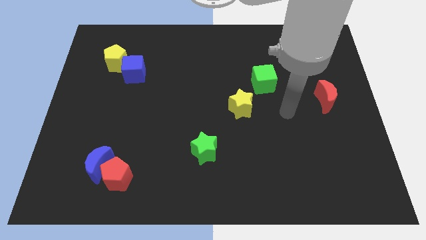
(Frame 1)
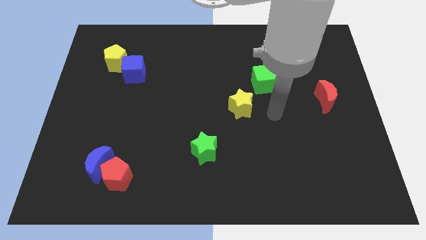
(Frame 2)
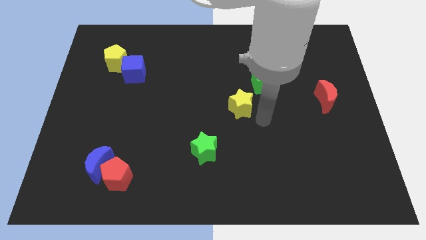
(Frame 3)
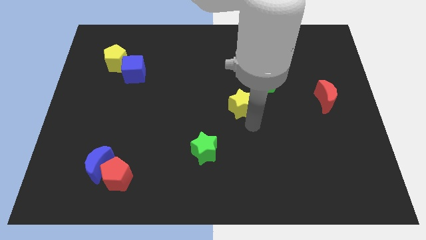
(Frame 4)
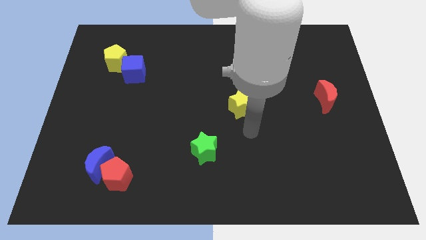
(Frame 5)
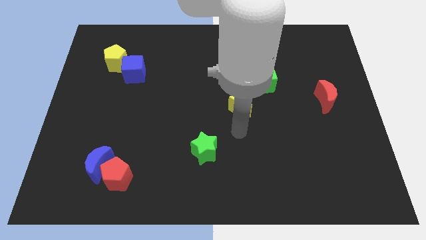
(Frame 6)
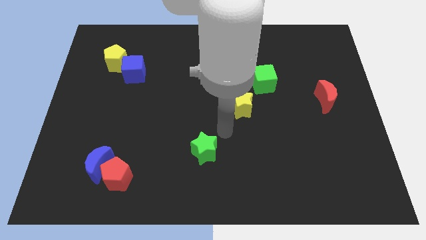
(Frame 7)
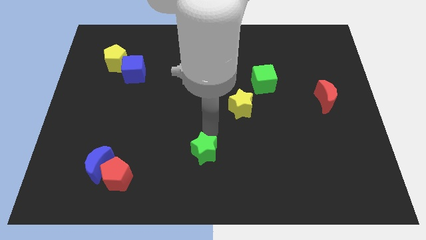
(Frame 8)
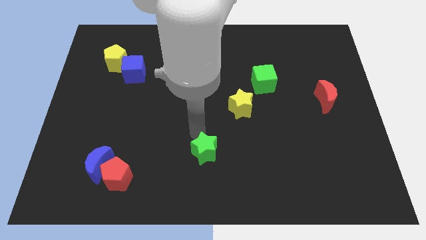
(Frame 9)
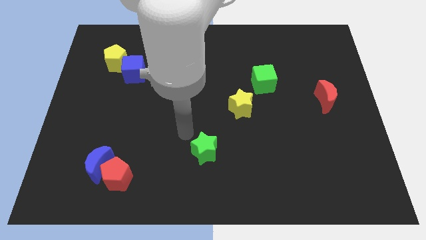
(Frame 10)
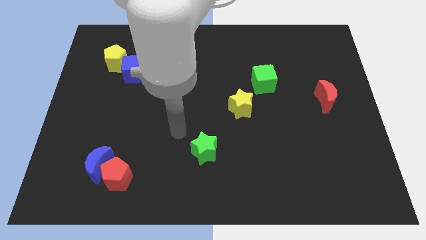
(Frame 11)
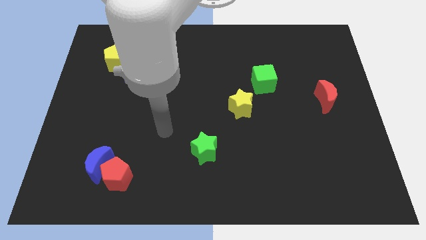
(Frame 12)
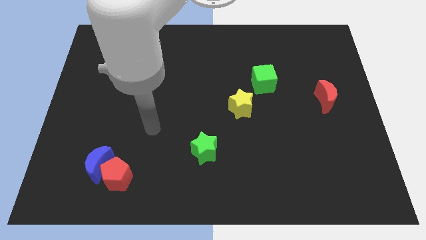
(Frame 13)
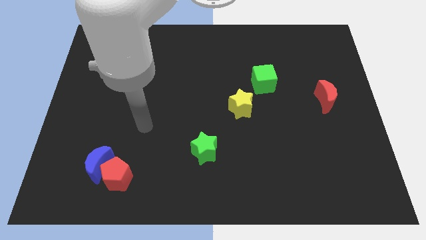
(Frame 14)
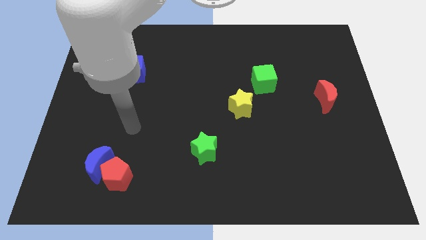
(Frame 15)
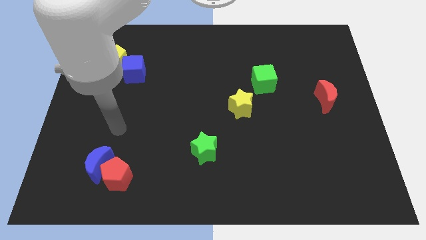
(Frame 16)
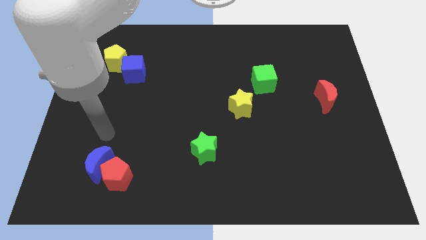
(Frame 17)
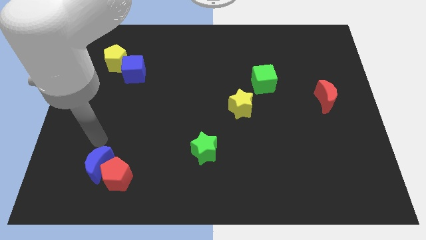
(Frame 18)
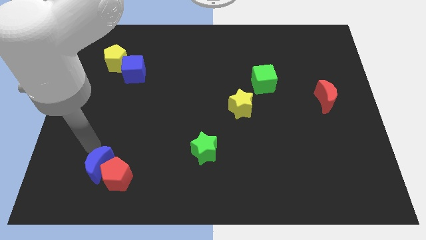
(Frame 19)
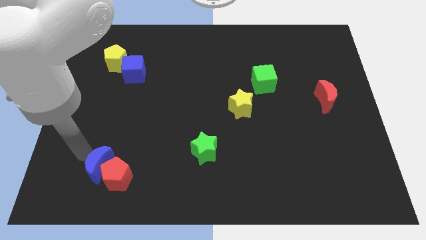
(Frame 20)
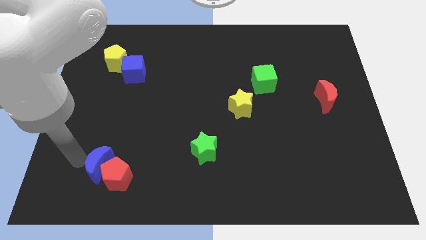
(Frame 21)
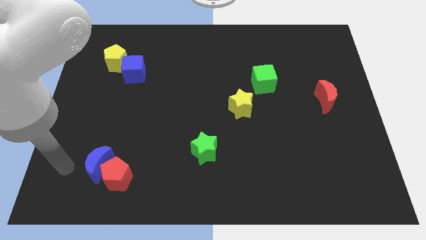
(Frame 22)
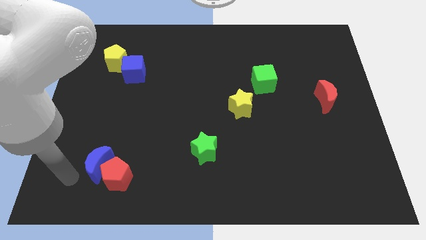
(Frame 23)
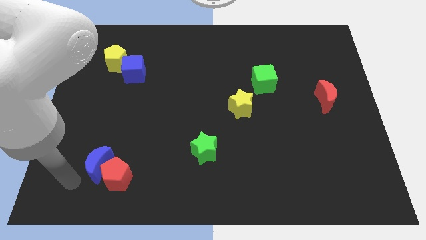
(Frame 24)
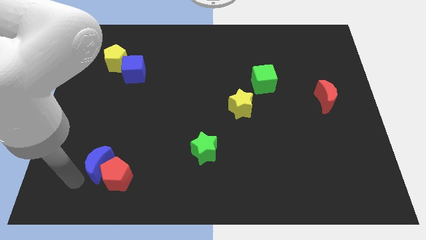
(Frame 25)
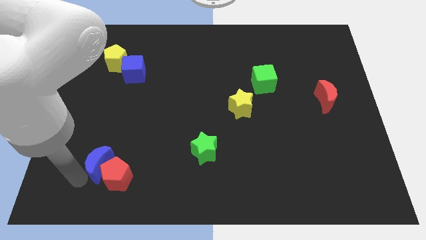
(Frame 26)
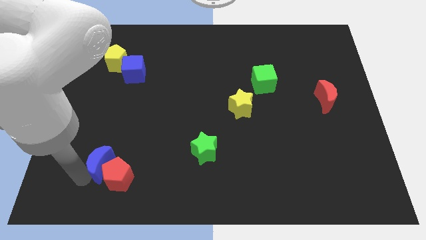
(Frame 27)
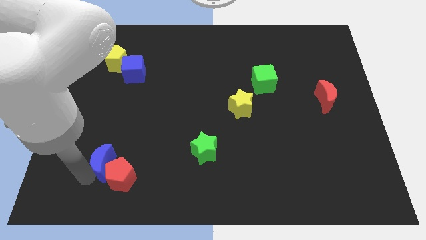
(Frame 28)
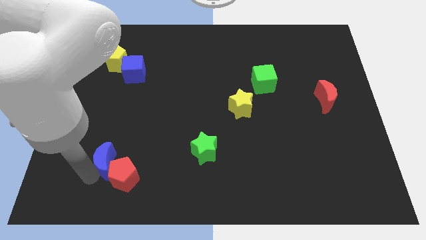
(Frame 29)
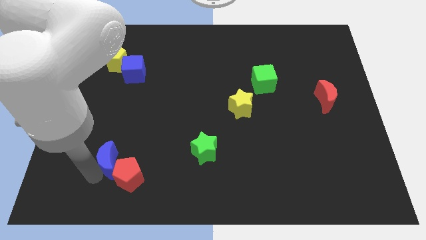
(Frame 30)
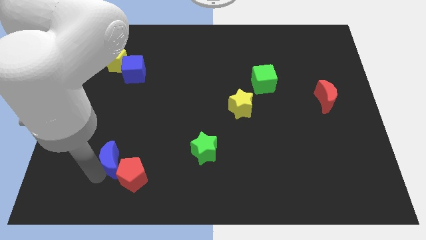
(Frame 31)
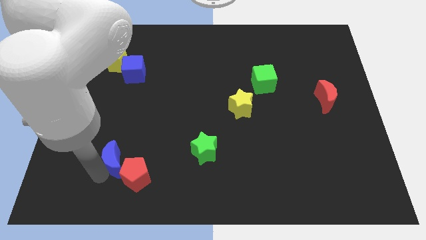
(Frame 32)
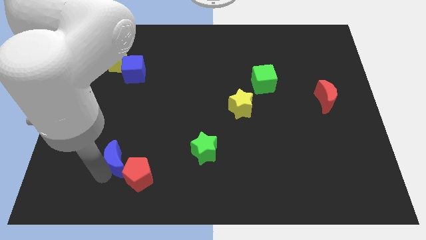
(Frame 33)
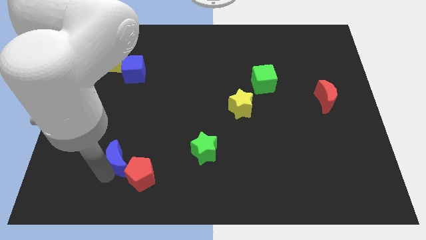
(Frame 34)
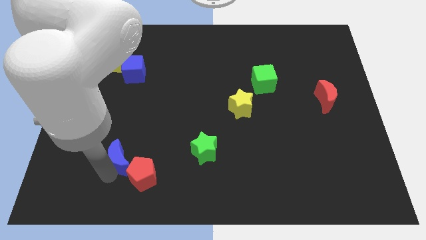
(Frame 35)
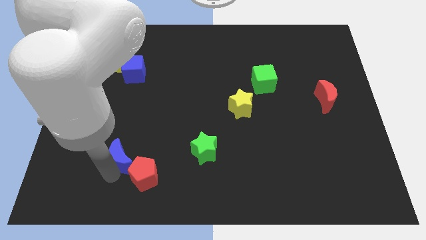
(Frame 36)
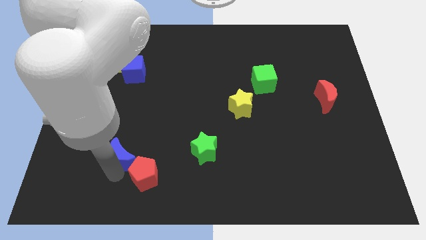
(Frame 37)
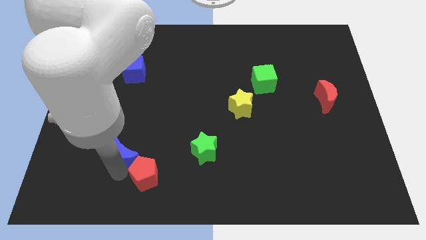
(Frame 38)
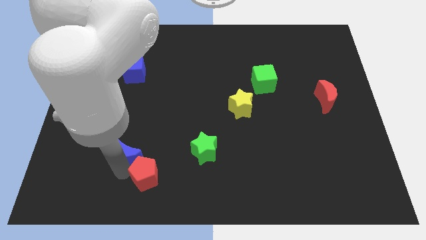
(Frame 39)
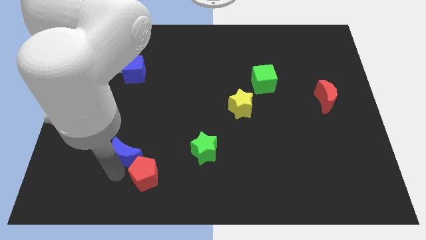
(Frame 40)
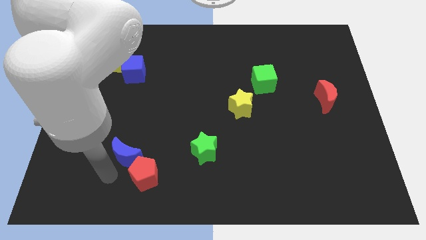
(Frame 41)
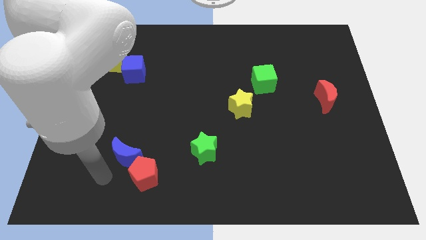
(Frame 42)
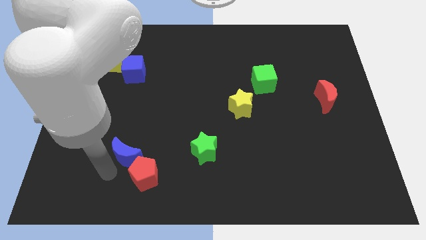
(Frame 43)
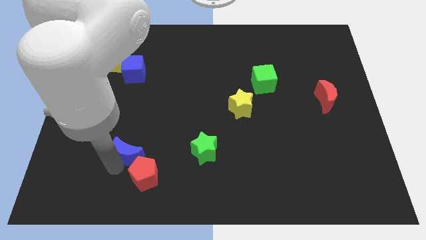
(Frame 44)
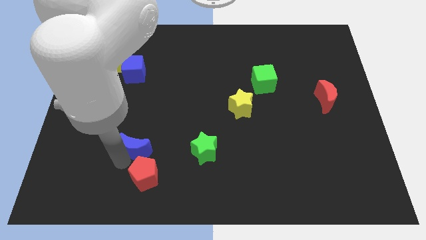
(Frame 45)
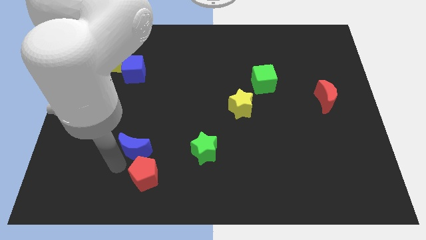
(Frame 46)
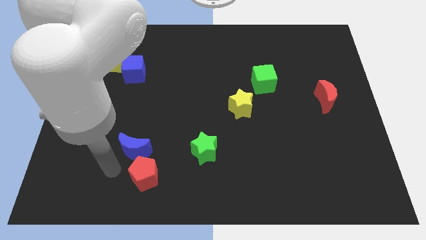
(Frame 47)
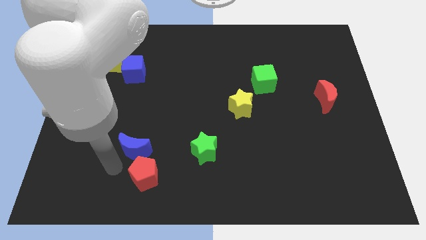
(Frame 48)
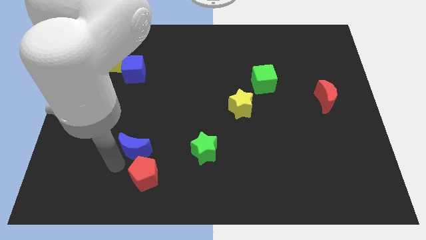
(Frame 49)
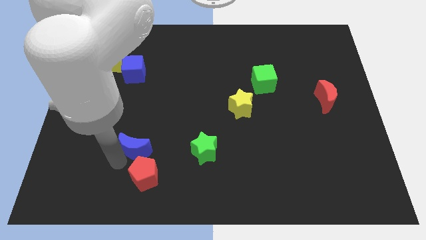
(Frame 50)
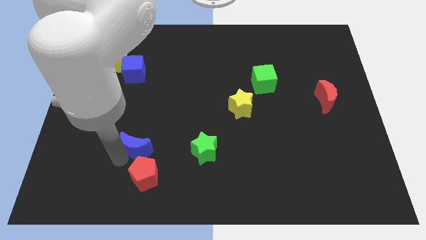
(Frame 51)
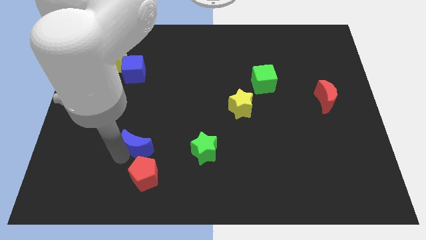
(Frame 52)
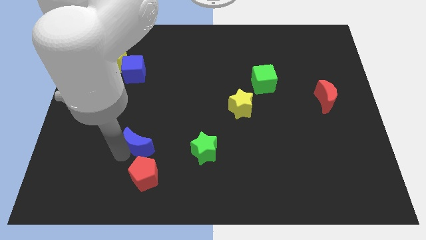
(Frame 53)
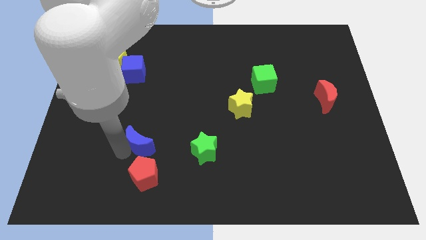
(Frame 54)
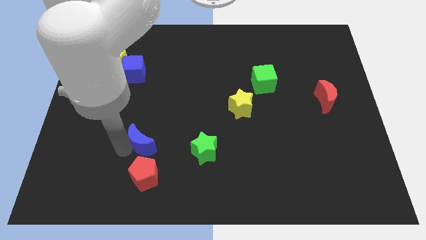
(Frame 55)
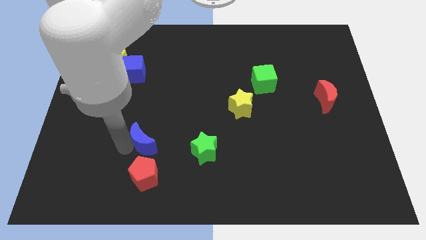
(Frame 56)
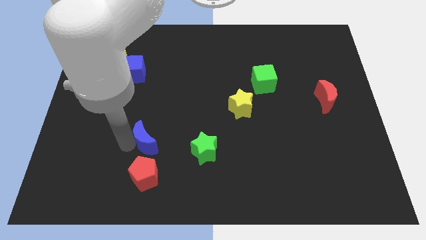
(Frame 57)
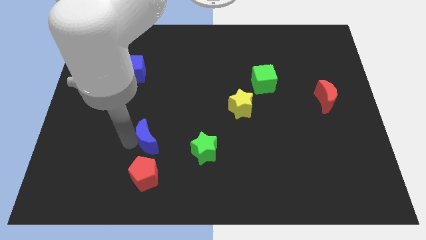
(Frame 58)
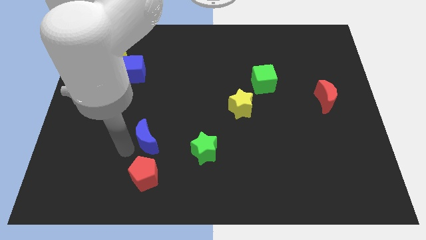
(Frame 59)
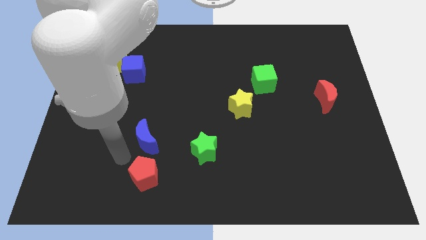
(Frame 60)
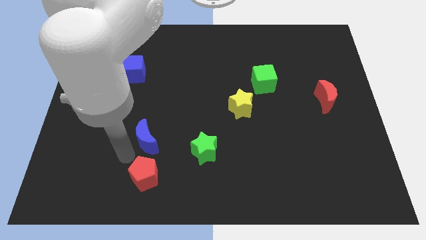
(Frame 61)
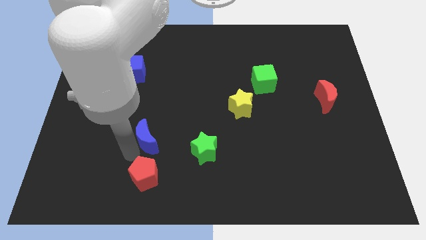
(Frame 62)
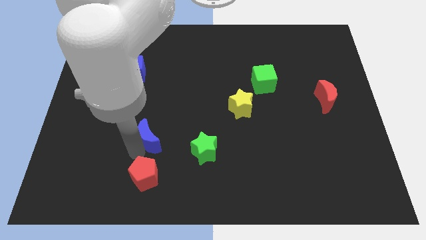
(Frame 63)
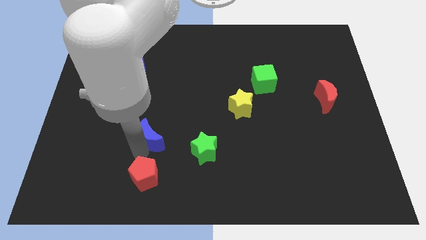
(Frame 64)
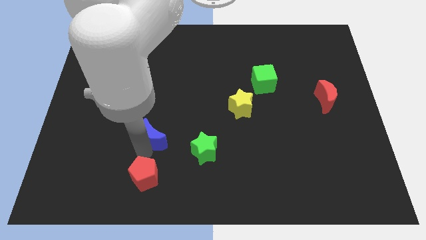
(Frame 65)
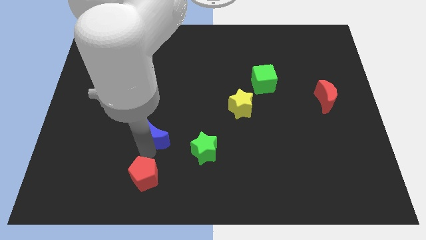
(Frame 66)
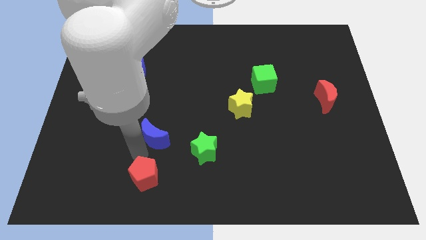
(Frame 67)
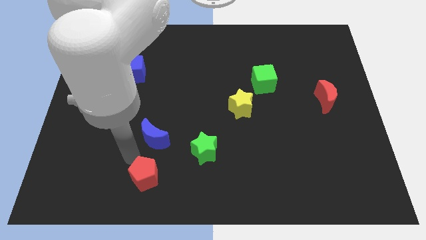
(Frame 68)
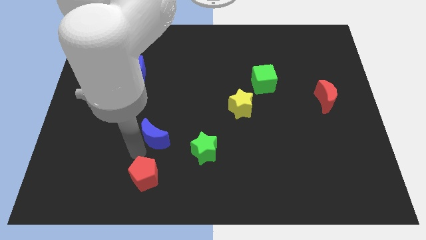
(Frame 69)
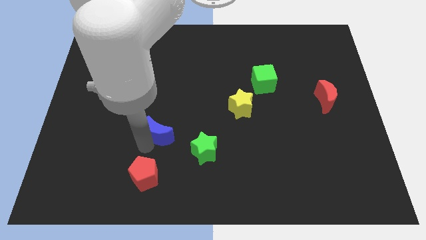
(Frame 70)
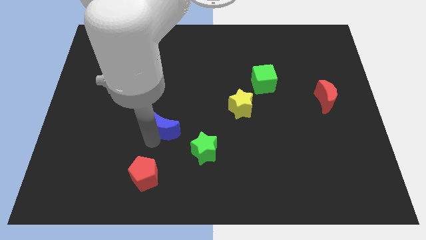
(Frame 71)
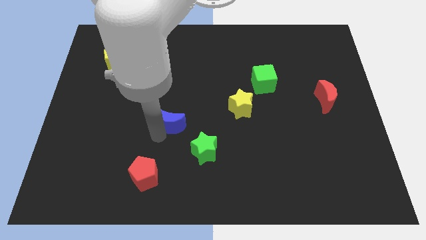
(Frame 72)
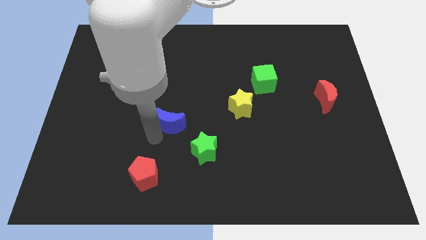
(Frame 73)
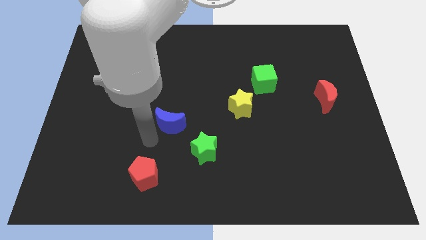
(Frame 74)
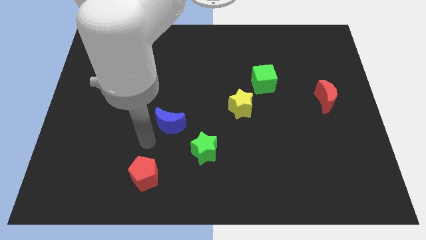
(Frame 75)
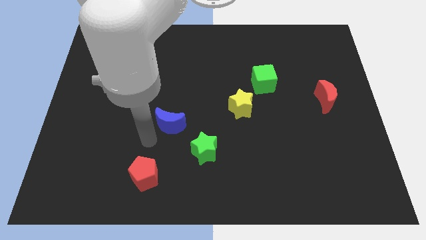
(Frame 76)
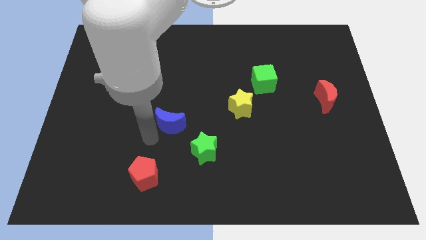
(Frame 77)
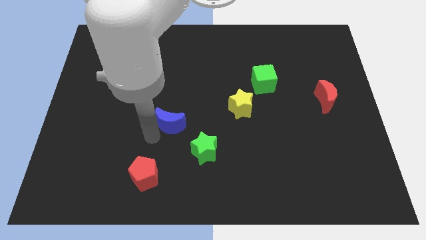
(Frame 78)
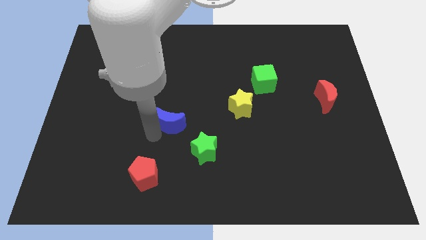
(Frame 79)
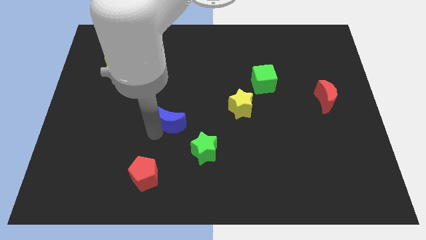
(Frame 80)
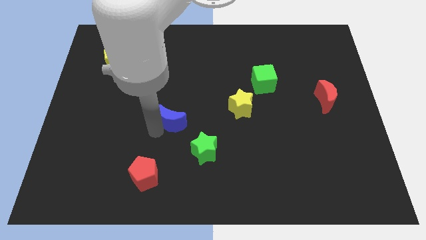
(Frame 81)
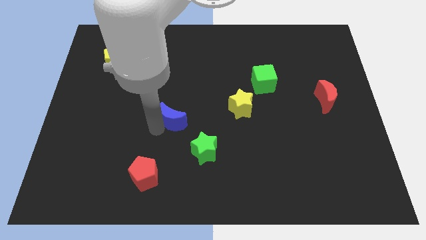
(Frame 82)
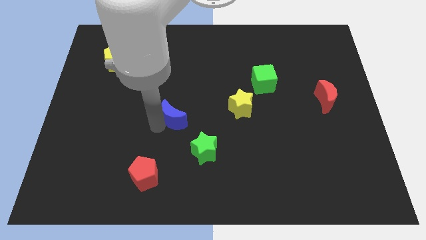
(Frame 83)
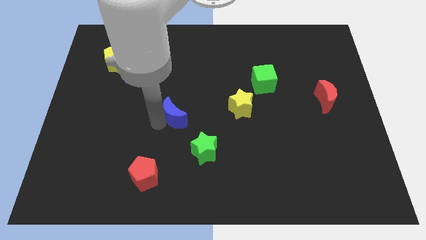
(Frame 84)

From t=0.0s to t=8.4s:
push the blue moon just left of the yellow star
